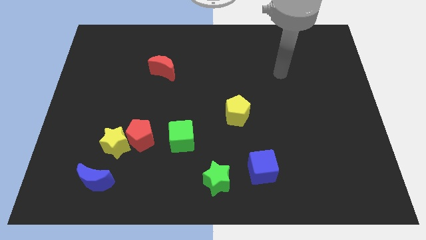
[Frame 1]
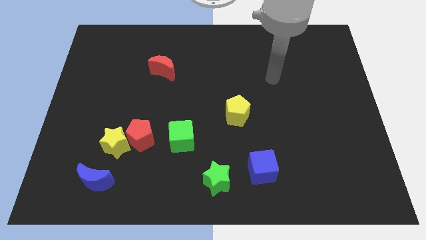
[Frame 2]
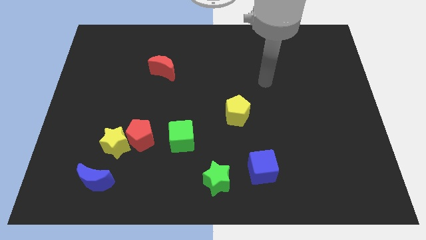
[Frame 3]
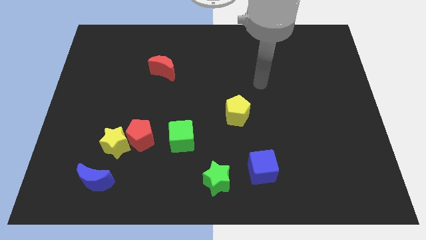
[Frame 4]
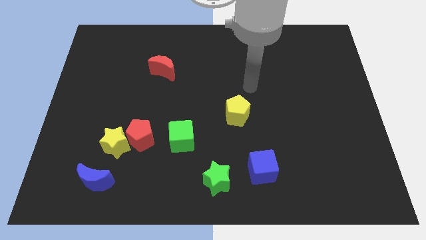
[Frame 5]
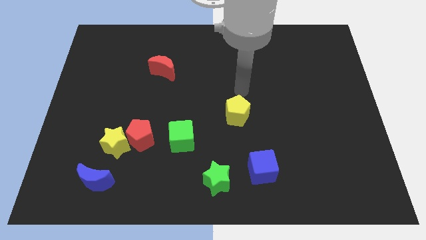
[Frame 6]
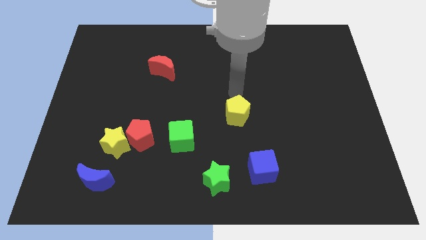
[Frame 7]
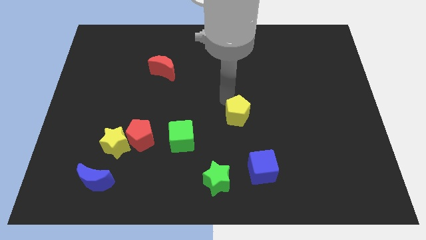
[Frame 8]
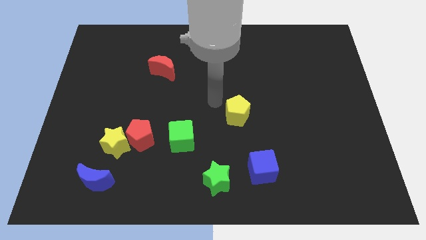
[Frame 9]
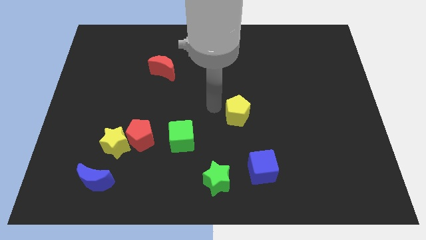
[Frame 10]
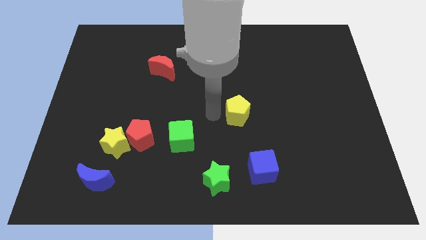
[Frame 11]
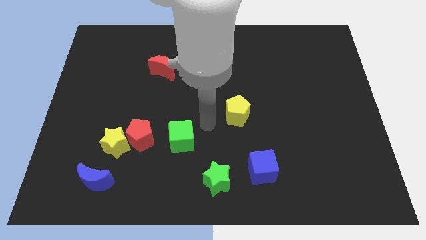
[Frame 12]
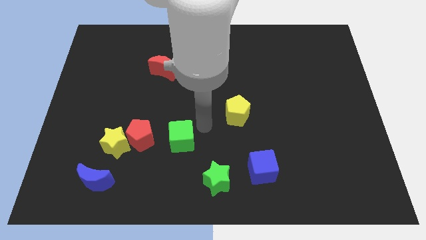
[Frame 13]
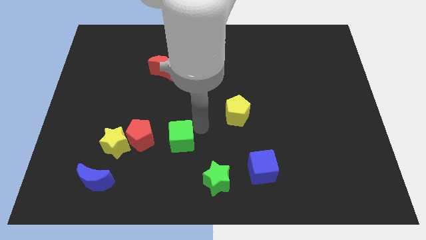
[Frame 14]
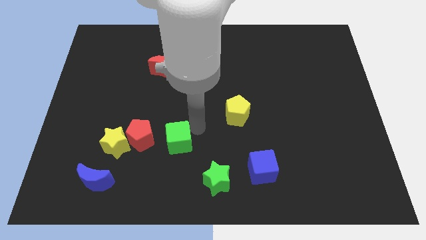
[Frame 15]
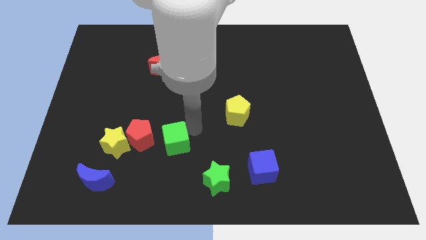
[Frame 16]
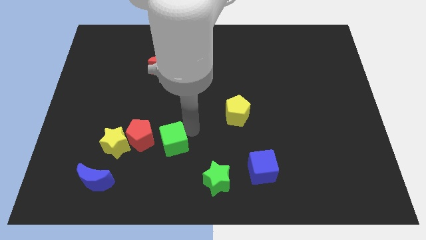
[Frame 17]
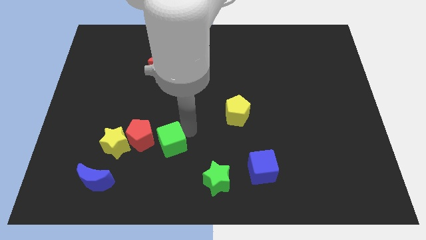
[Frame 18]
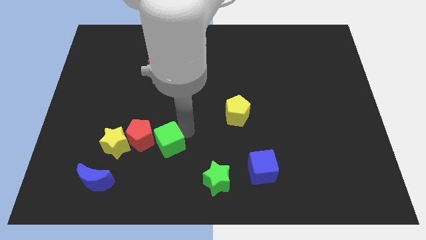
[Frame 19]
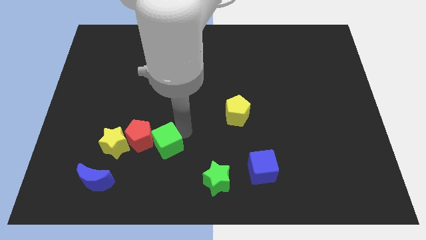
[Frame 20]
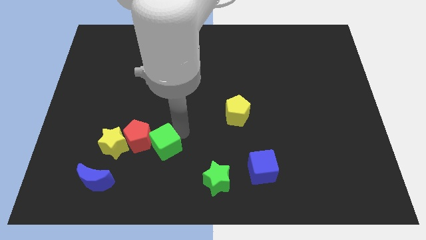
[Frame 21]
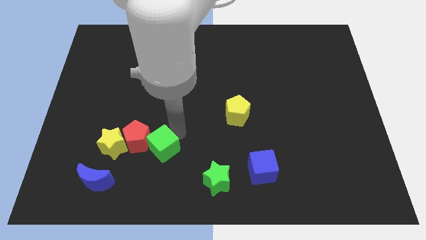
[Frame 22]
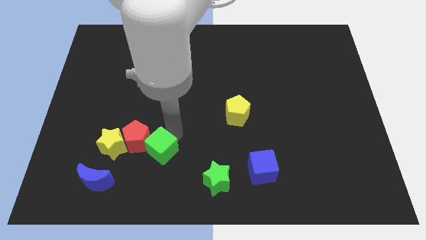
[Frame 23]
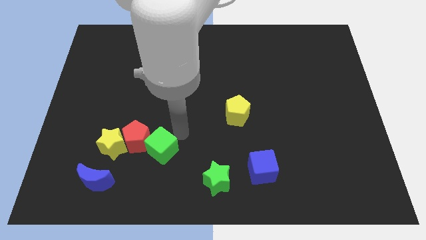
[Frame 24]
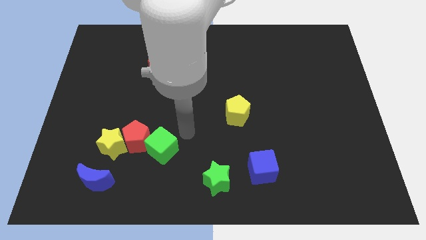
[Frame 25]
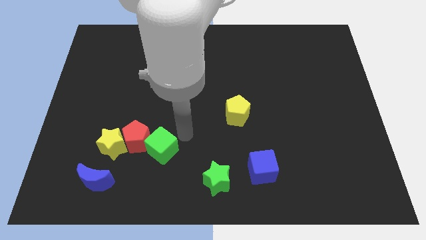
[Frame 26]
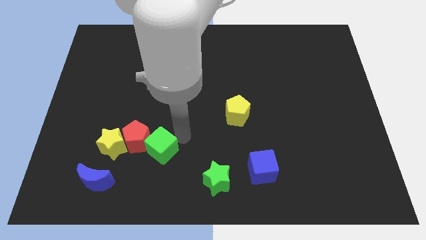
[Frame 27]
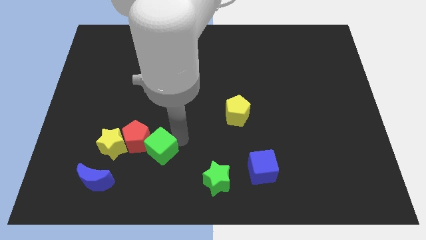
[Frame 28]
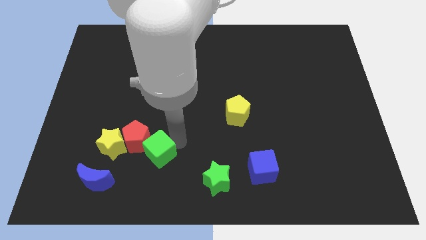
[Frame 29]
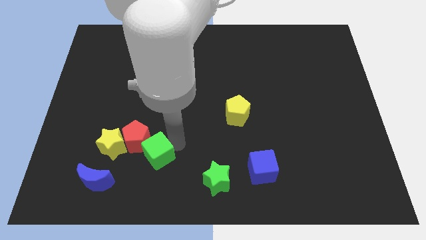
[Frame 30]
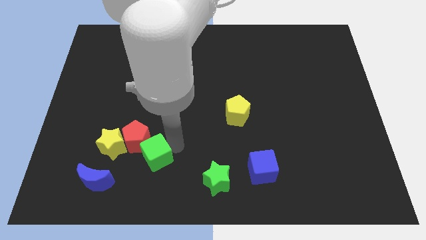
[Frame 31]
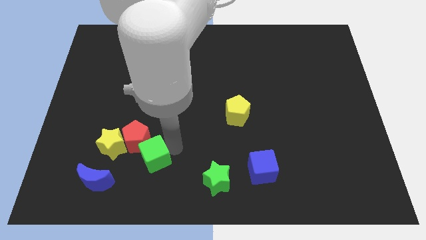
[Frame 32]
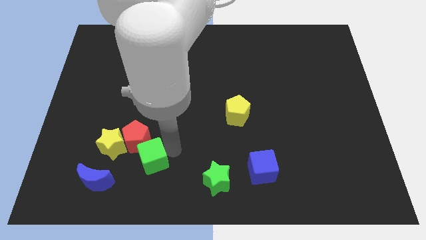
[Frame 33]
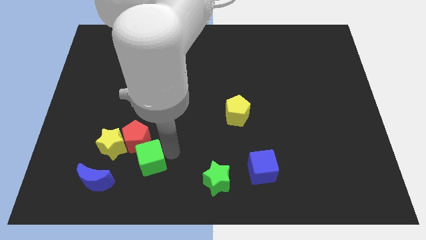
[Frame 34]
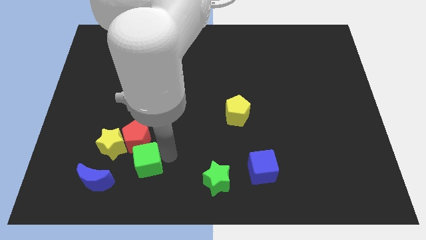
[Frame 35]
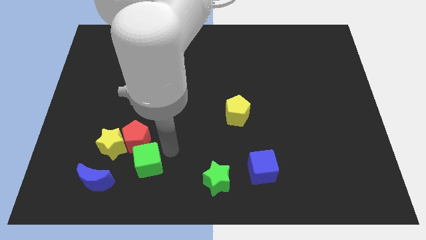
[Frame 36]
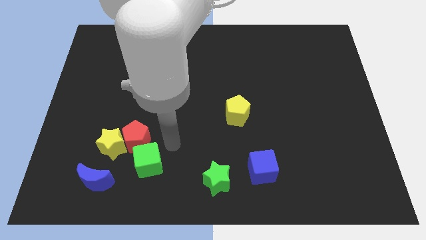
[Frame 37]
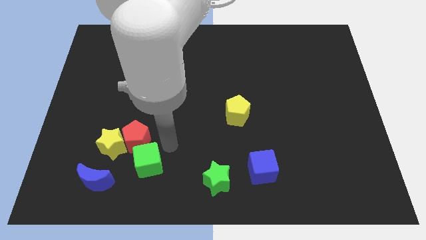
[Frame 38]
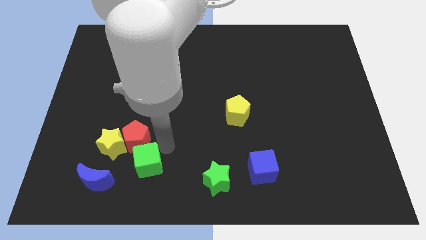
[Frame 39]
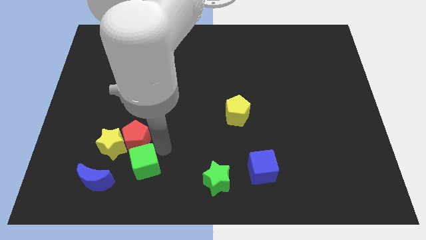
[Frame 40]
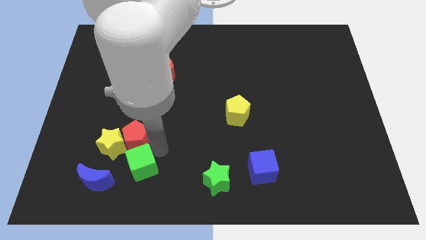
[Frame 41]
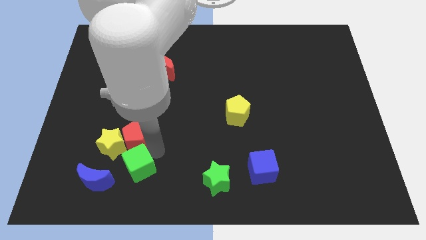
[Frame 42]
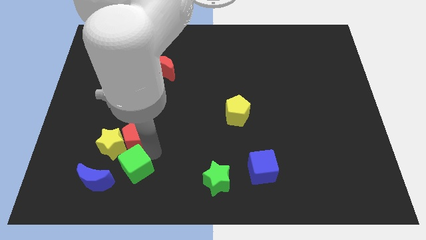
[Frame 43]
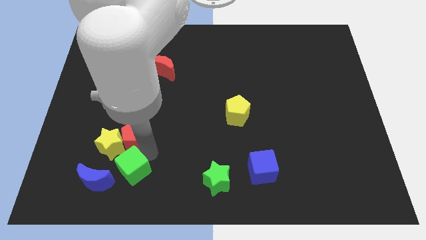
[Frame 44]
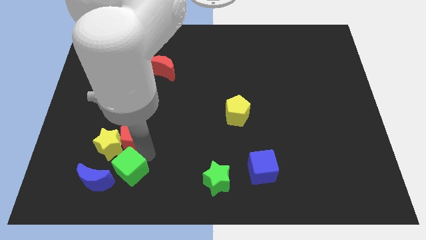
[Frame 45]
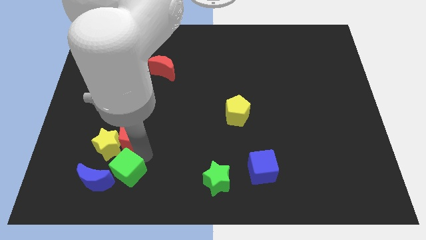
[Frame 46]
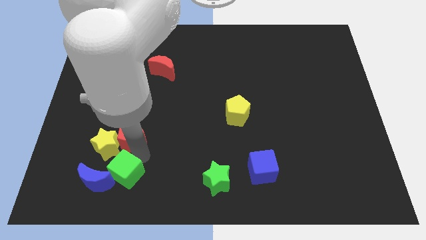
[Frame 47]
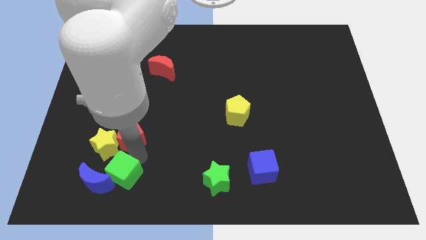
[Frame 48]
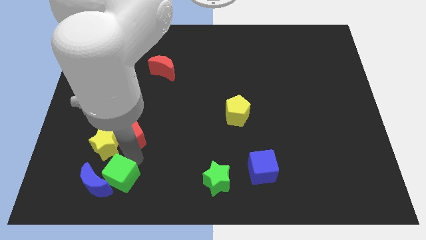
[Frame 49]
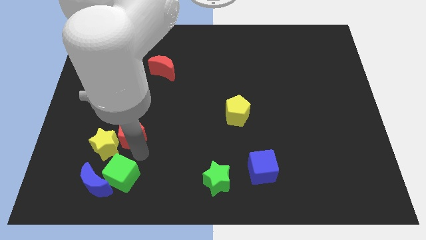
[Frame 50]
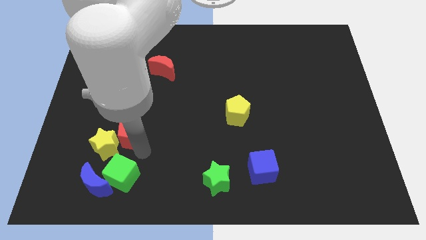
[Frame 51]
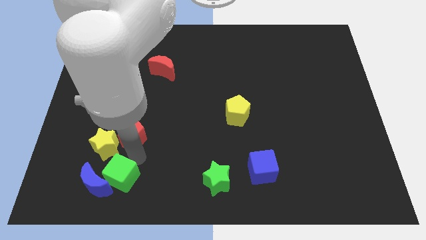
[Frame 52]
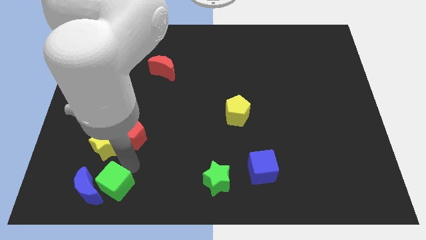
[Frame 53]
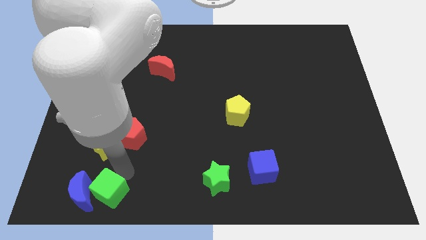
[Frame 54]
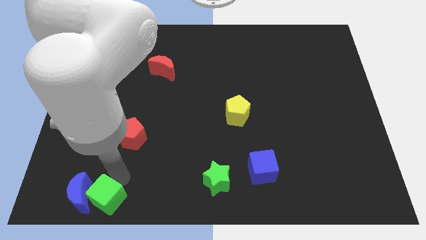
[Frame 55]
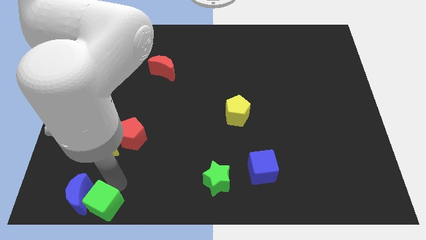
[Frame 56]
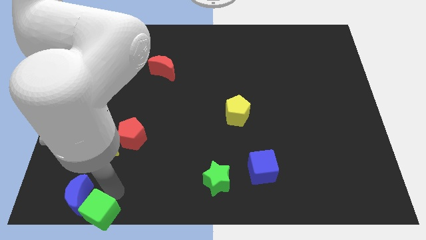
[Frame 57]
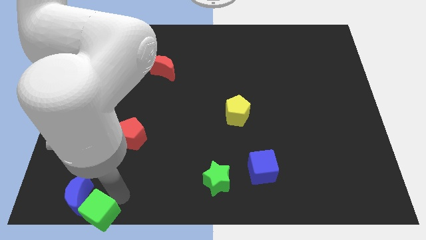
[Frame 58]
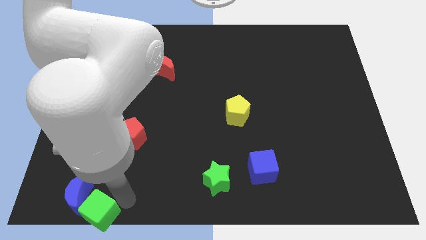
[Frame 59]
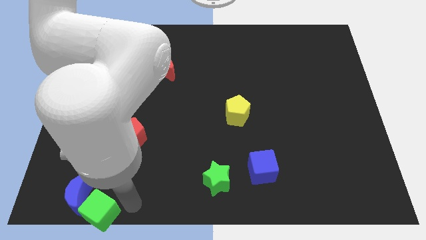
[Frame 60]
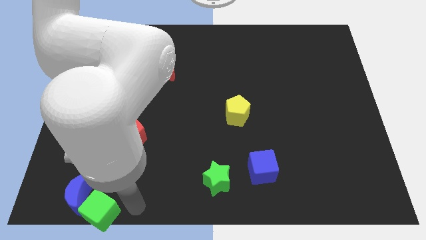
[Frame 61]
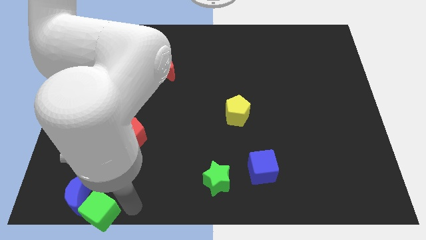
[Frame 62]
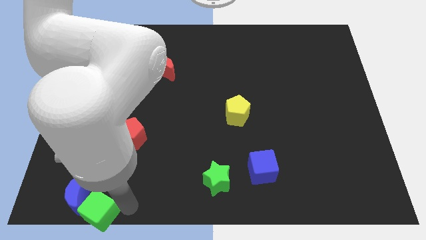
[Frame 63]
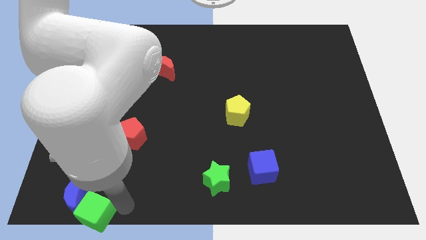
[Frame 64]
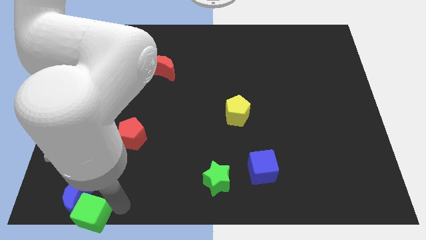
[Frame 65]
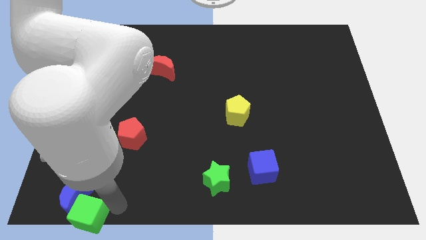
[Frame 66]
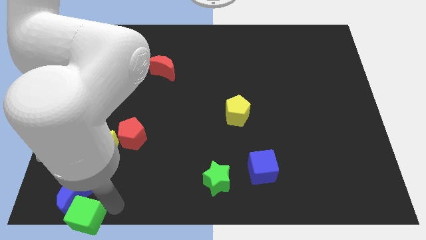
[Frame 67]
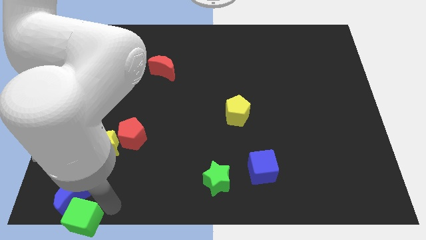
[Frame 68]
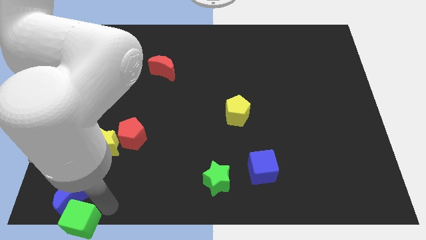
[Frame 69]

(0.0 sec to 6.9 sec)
slide the green cube to the bottom left of the board
